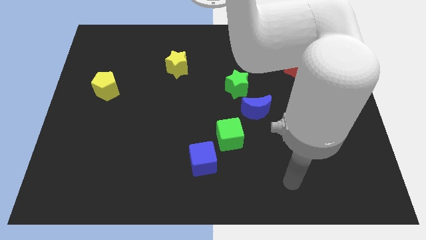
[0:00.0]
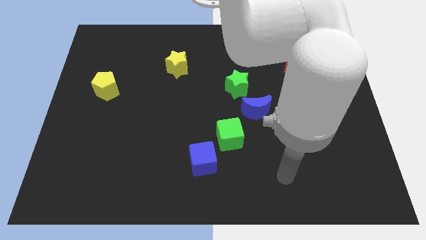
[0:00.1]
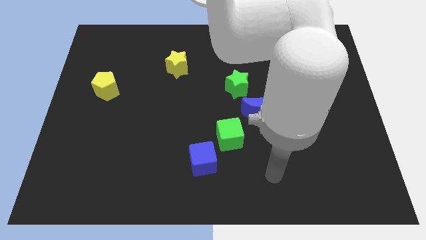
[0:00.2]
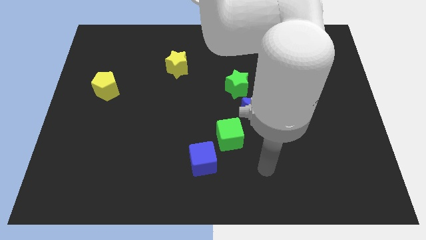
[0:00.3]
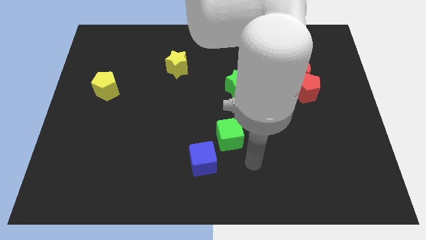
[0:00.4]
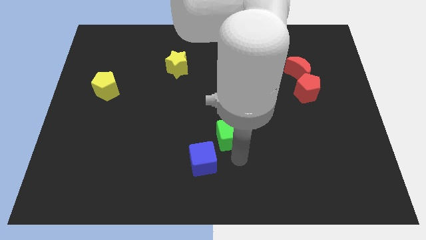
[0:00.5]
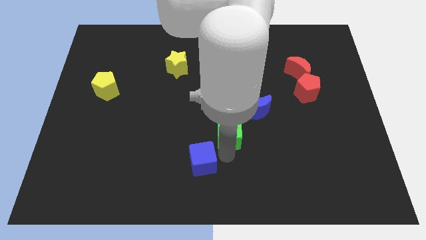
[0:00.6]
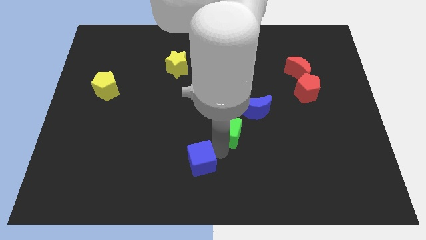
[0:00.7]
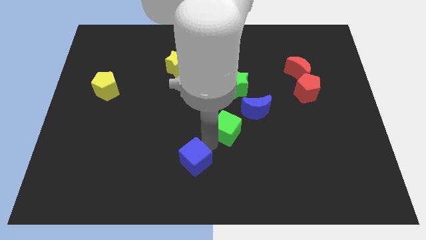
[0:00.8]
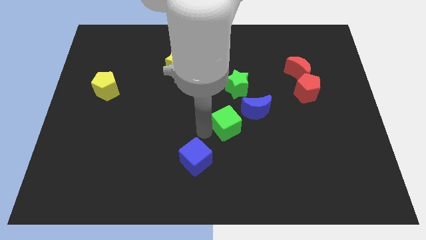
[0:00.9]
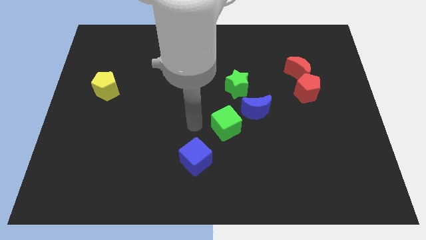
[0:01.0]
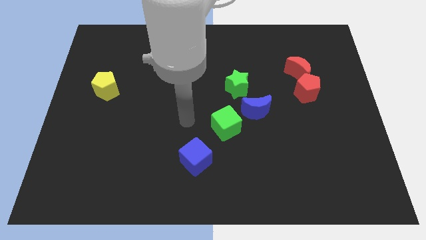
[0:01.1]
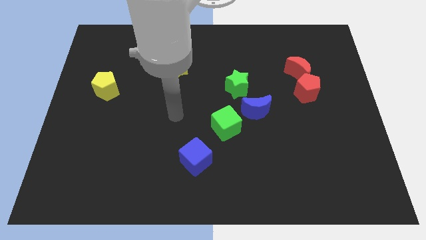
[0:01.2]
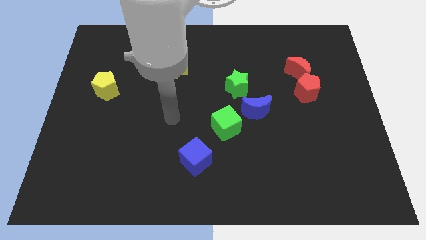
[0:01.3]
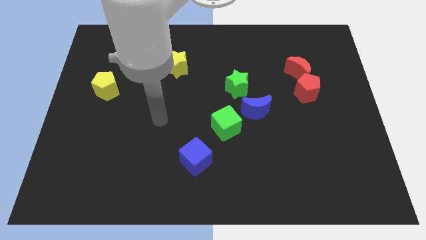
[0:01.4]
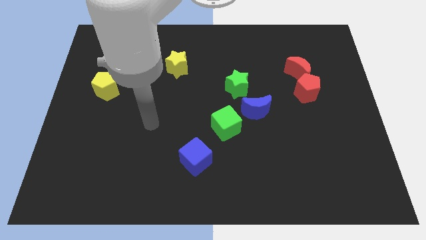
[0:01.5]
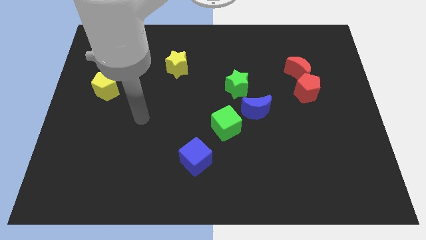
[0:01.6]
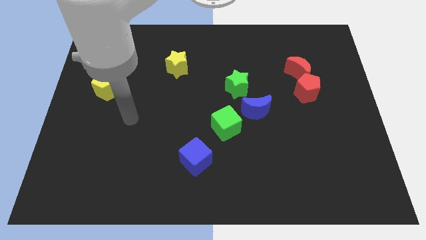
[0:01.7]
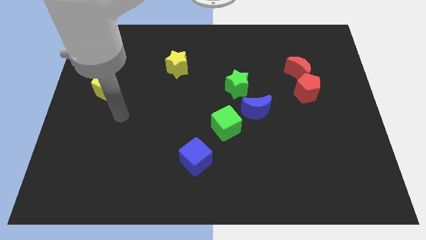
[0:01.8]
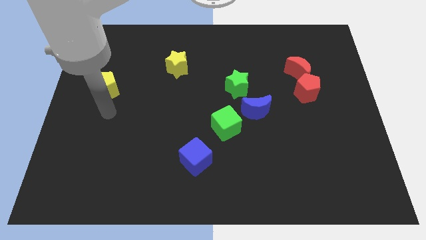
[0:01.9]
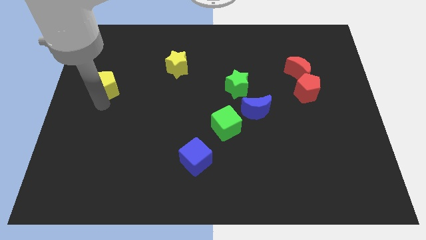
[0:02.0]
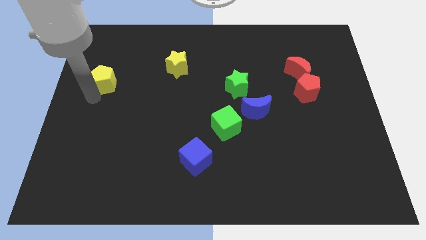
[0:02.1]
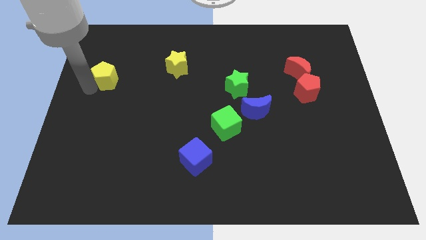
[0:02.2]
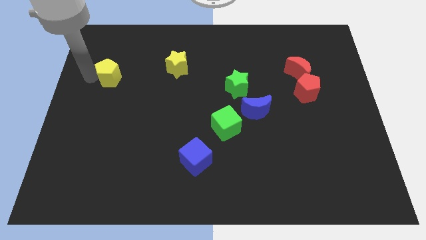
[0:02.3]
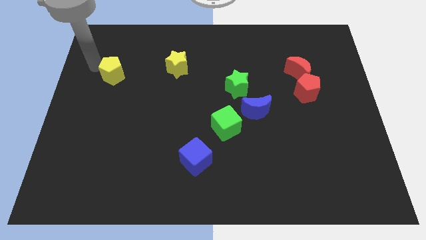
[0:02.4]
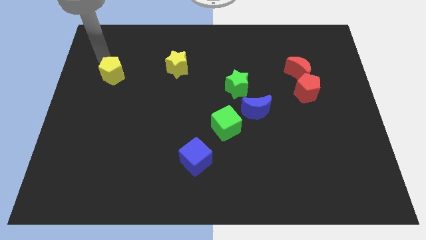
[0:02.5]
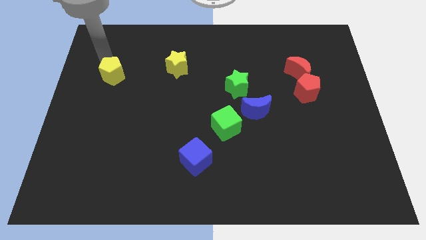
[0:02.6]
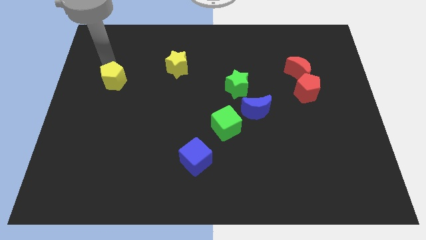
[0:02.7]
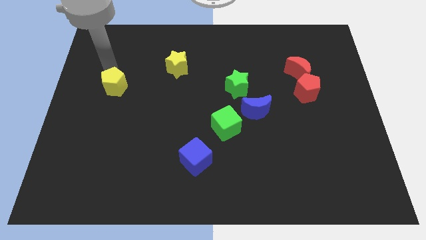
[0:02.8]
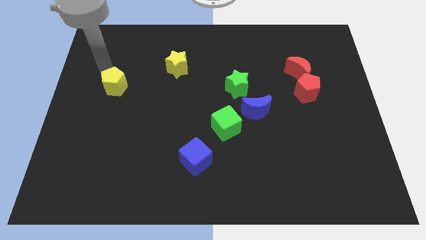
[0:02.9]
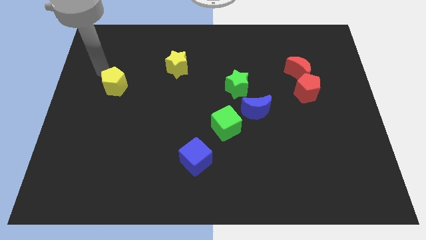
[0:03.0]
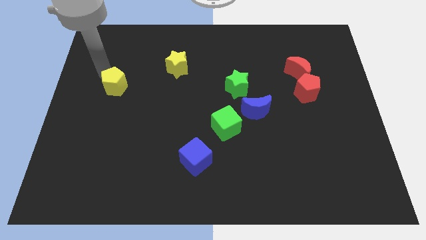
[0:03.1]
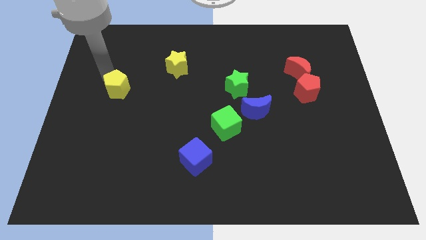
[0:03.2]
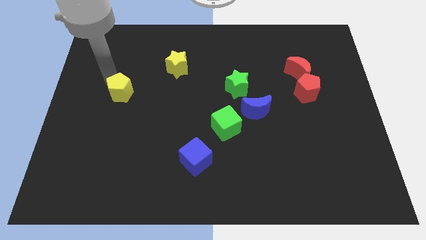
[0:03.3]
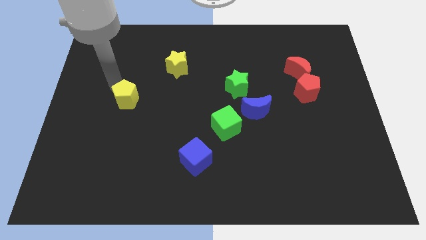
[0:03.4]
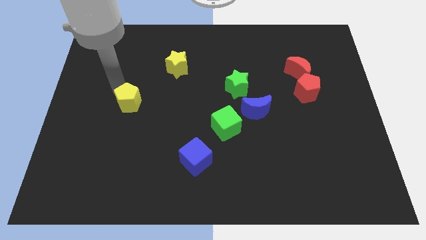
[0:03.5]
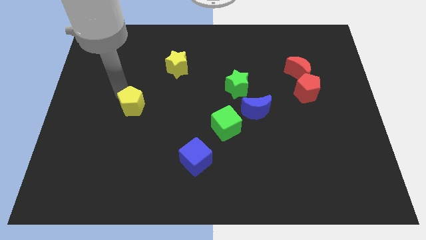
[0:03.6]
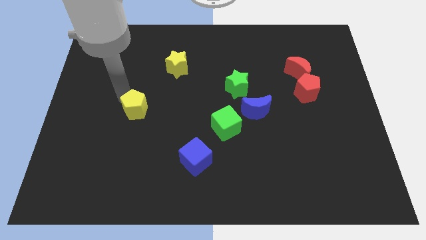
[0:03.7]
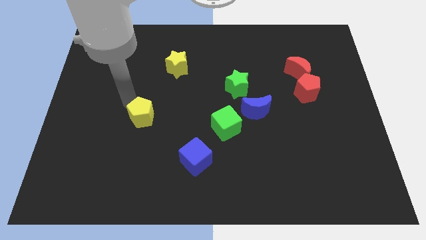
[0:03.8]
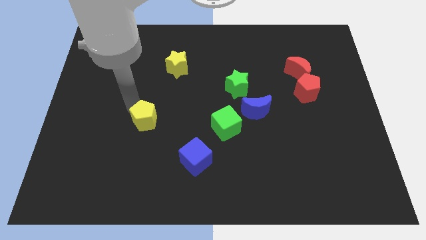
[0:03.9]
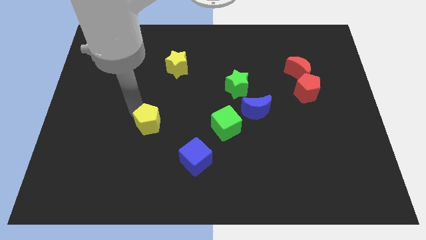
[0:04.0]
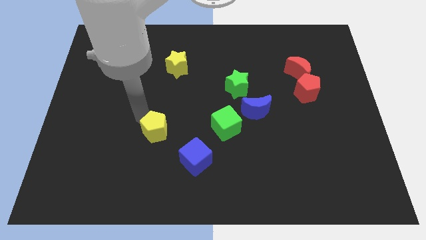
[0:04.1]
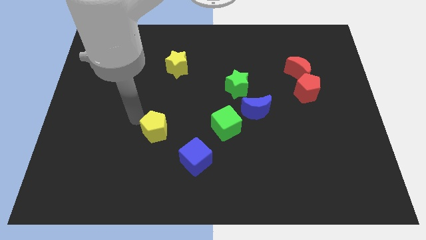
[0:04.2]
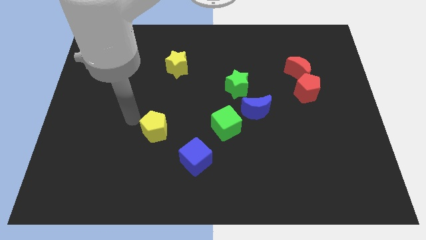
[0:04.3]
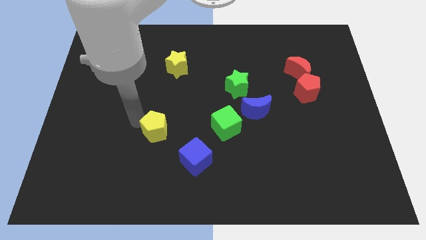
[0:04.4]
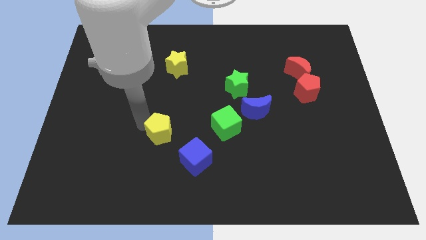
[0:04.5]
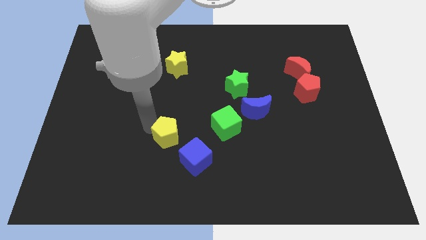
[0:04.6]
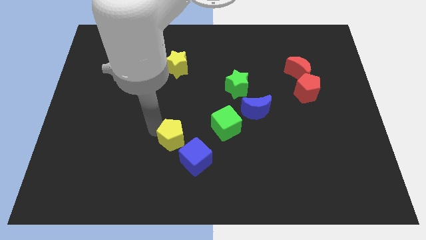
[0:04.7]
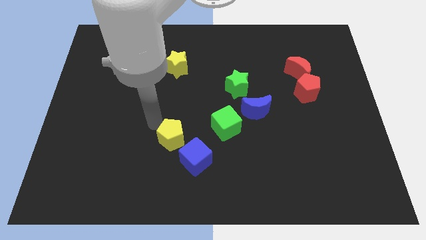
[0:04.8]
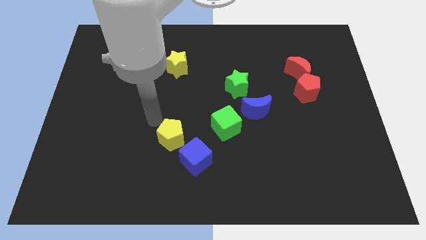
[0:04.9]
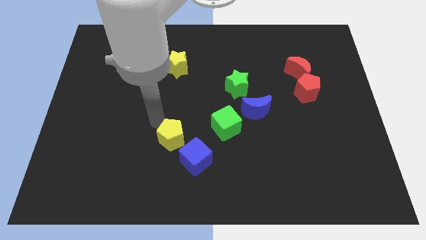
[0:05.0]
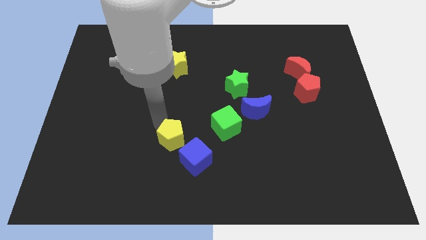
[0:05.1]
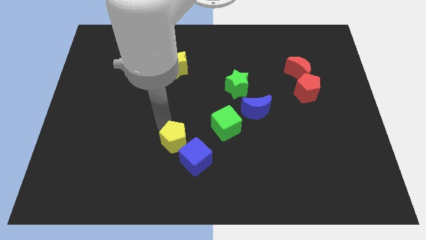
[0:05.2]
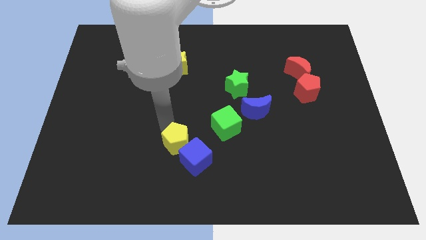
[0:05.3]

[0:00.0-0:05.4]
slide the yellow pentagon to the blue cube

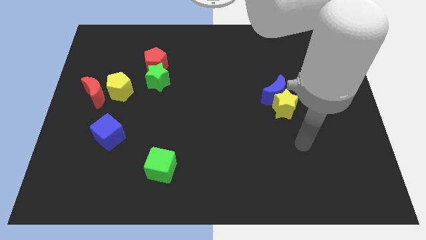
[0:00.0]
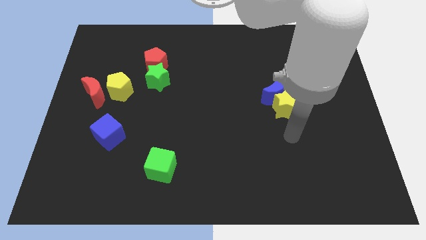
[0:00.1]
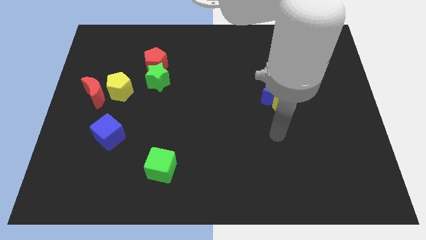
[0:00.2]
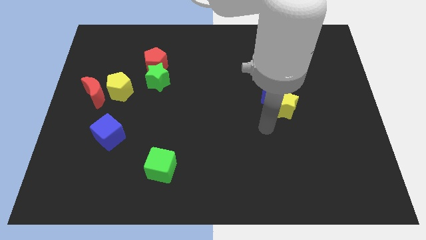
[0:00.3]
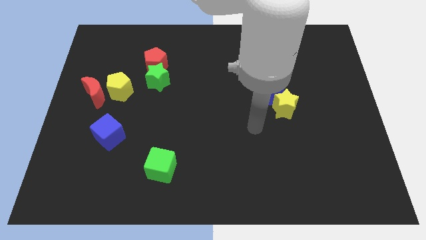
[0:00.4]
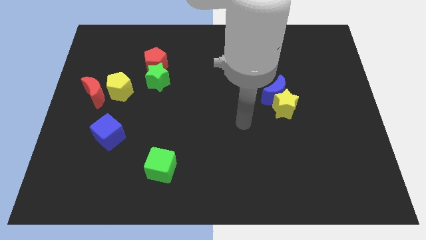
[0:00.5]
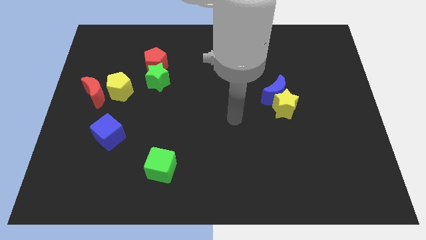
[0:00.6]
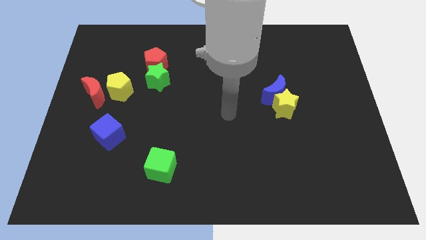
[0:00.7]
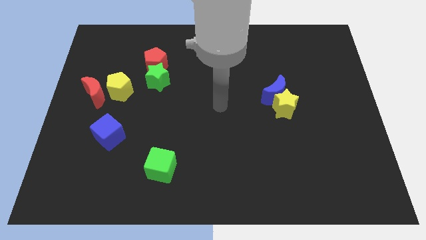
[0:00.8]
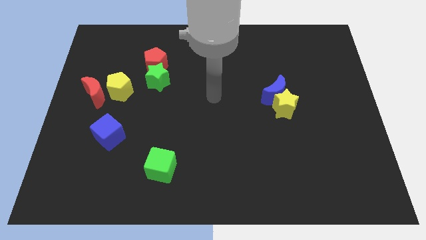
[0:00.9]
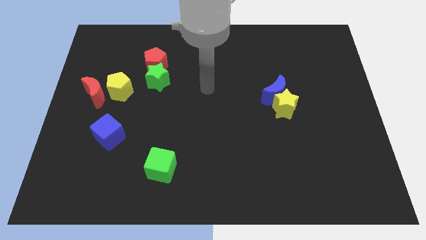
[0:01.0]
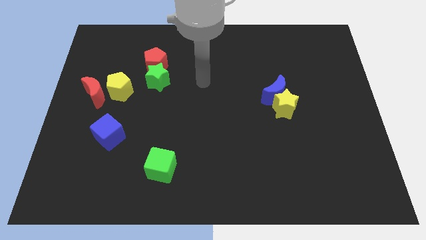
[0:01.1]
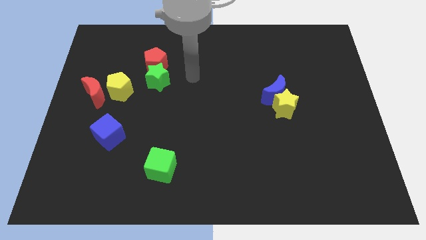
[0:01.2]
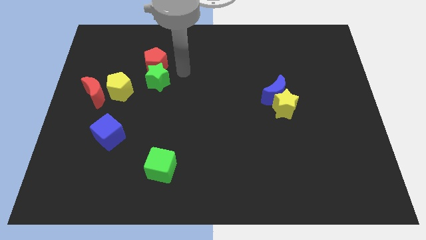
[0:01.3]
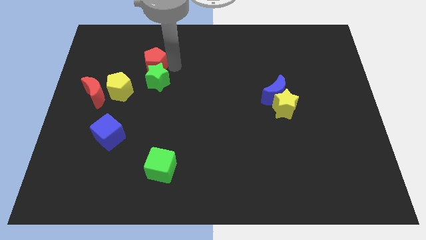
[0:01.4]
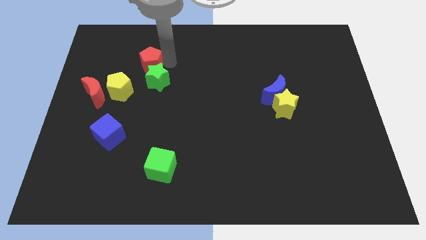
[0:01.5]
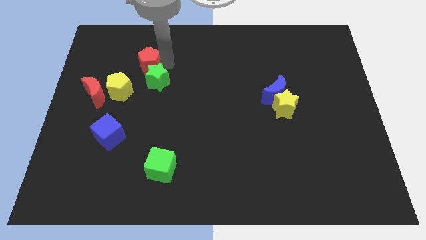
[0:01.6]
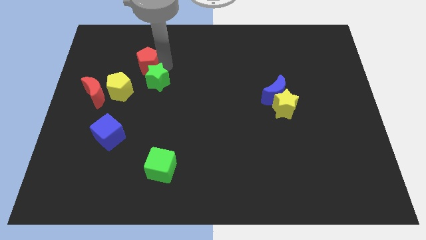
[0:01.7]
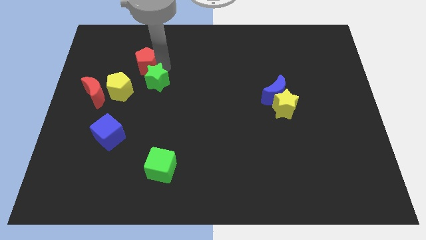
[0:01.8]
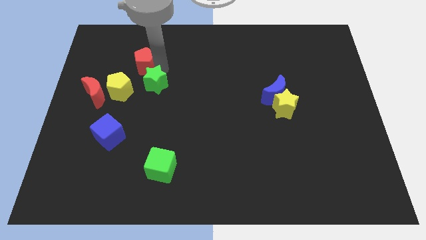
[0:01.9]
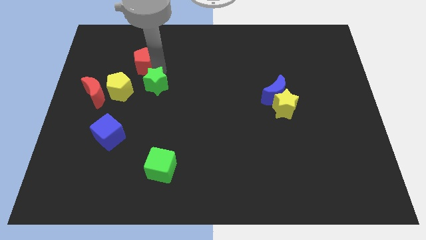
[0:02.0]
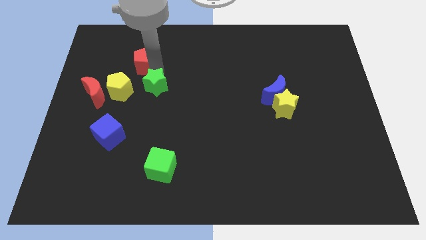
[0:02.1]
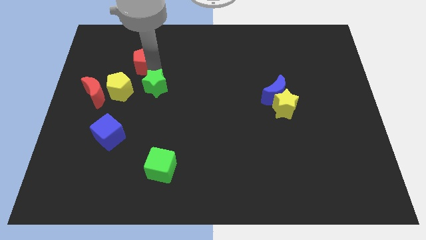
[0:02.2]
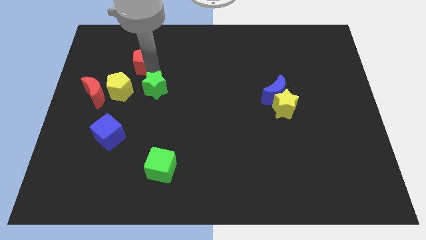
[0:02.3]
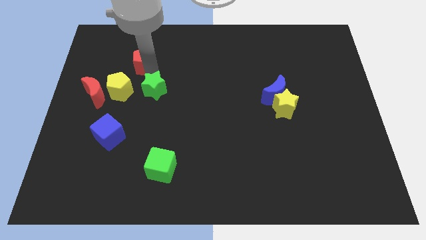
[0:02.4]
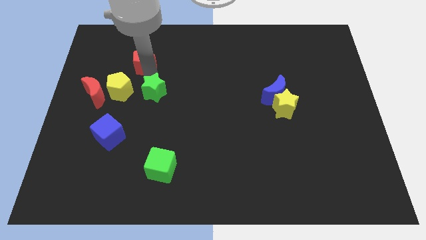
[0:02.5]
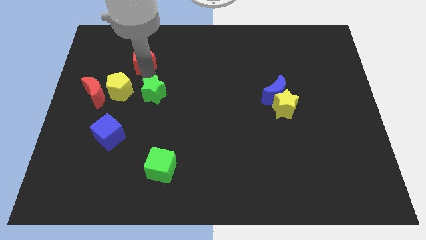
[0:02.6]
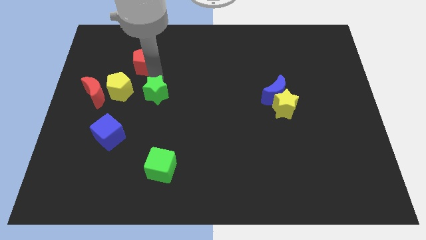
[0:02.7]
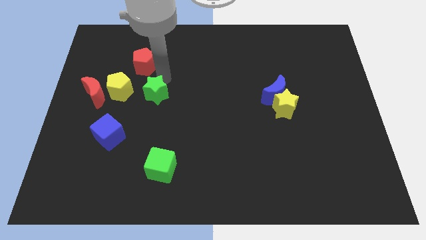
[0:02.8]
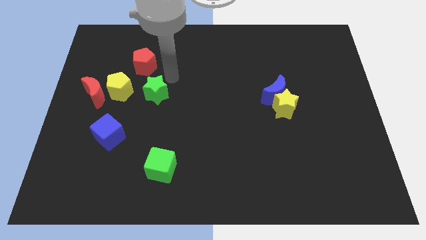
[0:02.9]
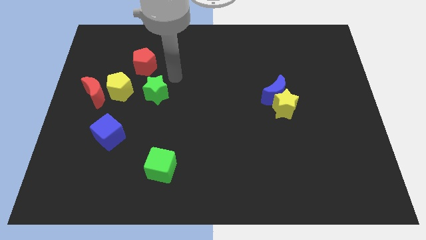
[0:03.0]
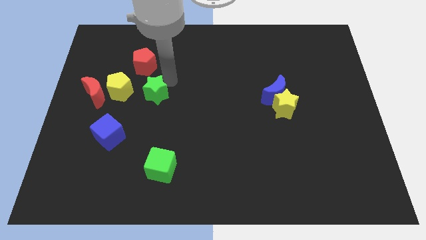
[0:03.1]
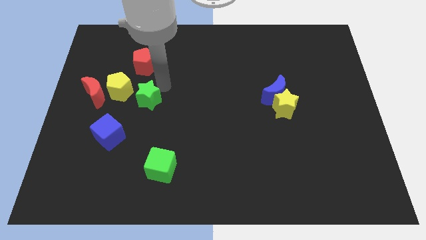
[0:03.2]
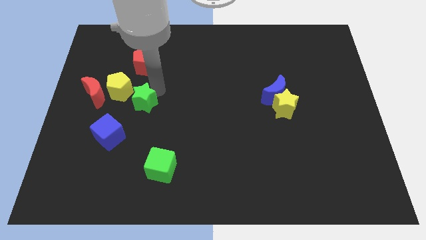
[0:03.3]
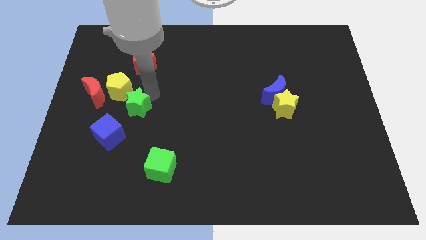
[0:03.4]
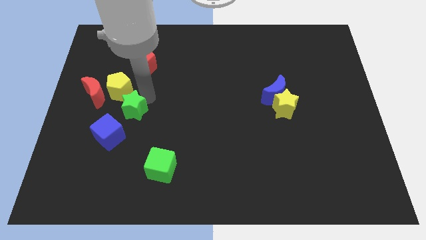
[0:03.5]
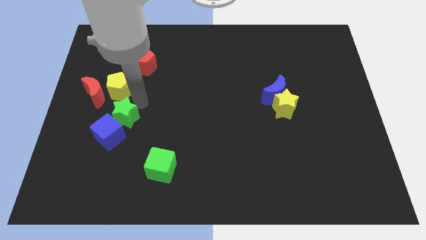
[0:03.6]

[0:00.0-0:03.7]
move the green star next to the blue cube
